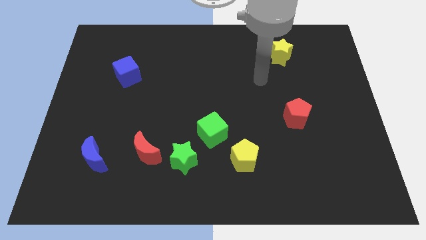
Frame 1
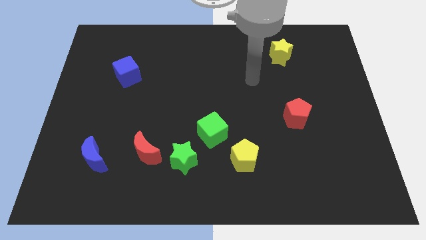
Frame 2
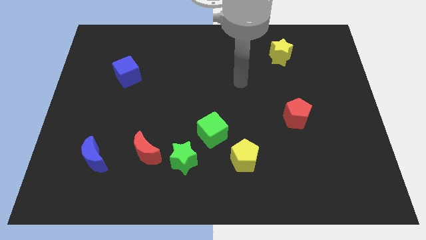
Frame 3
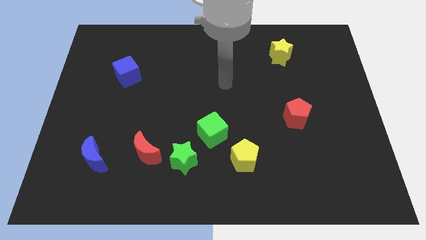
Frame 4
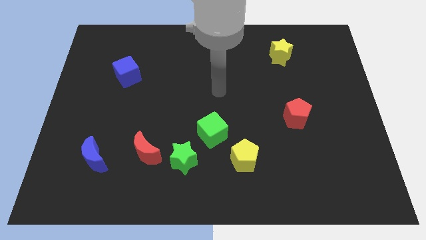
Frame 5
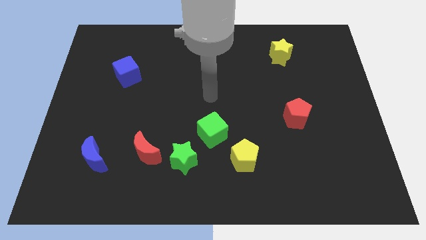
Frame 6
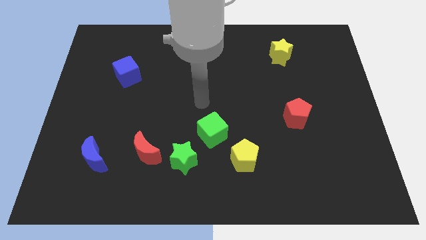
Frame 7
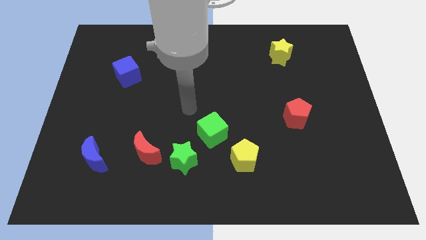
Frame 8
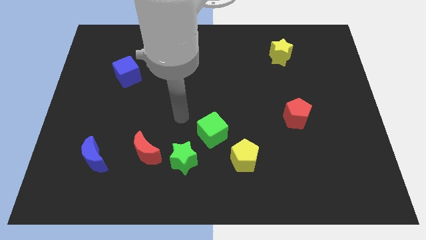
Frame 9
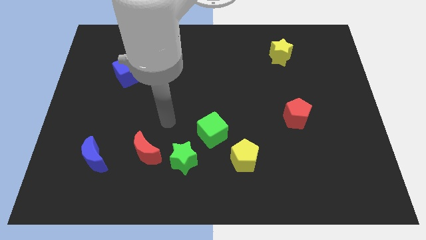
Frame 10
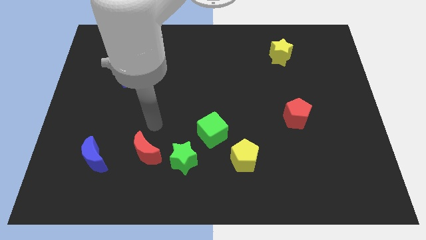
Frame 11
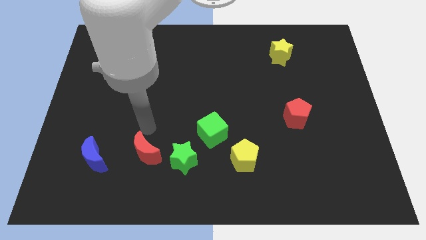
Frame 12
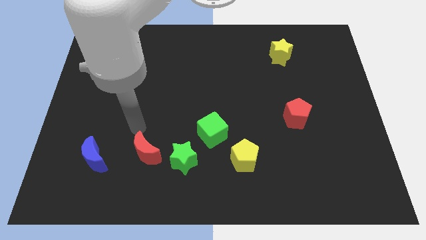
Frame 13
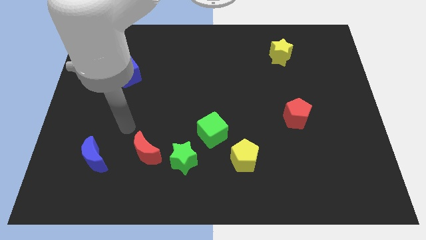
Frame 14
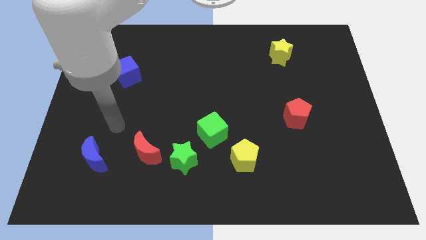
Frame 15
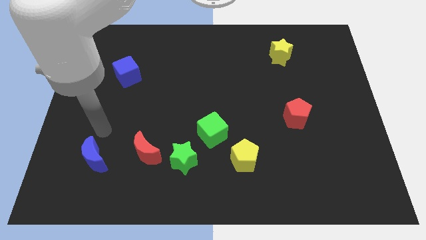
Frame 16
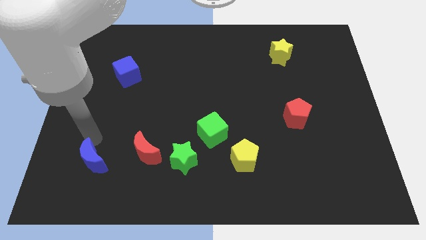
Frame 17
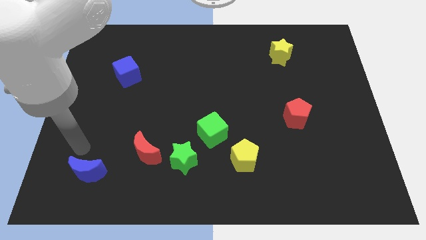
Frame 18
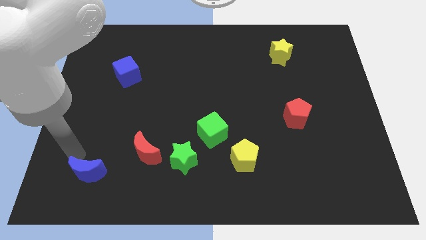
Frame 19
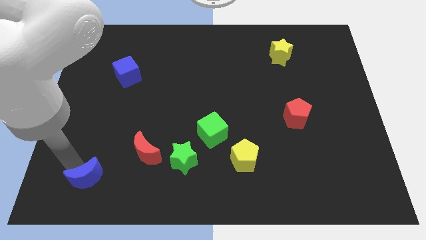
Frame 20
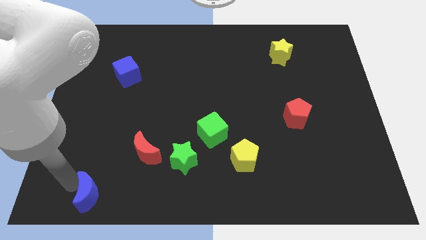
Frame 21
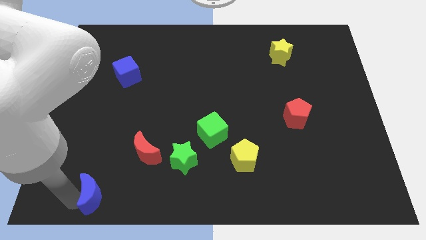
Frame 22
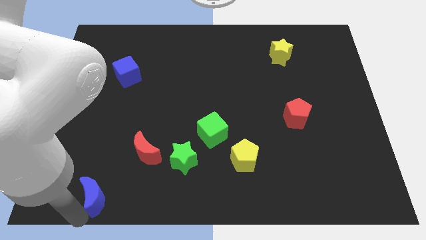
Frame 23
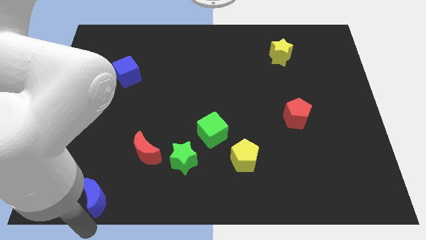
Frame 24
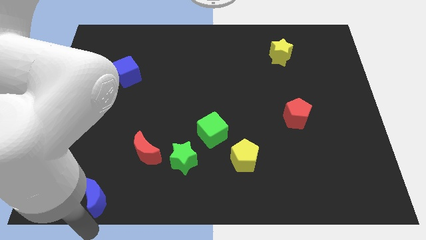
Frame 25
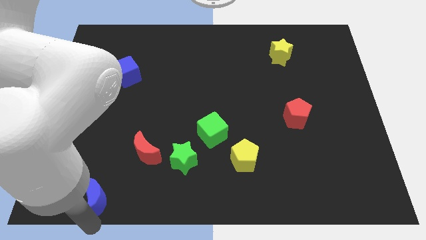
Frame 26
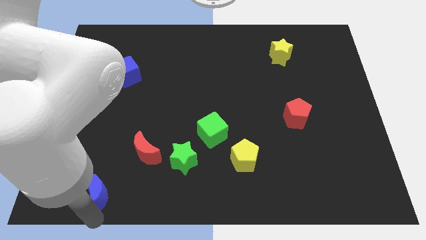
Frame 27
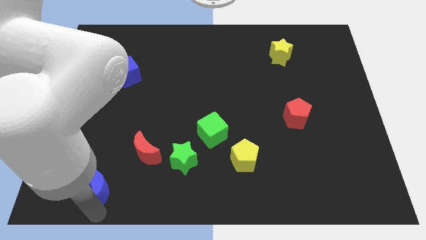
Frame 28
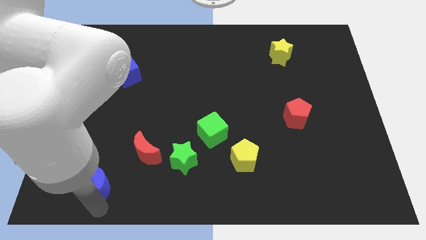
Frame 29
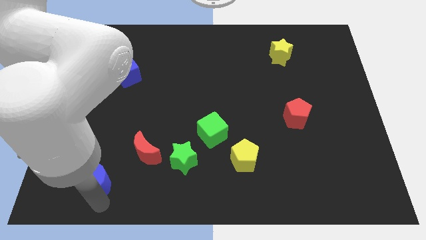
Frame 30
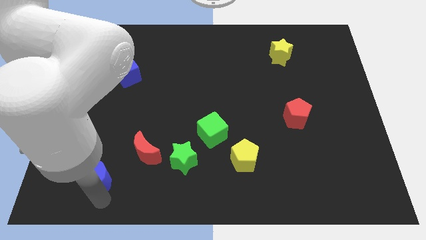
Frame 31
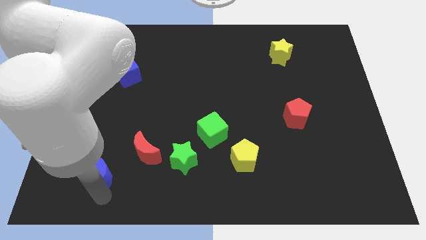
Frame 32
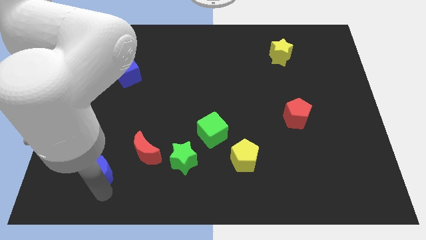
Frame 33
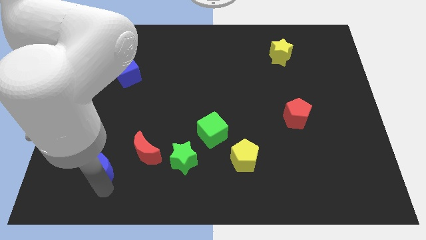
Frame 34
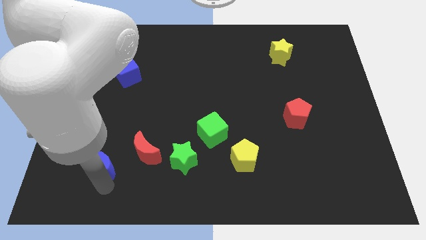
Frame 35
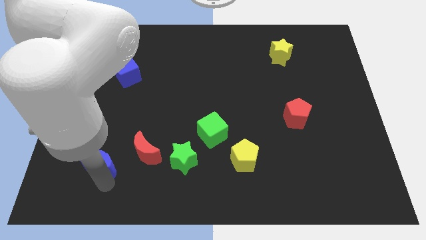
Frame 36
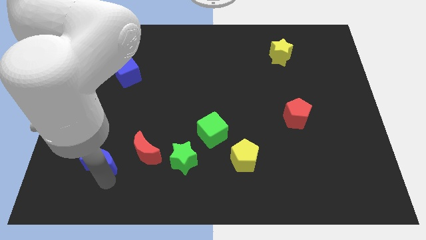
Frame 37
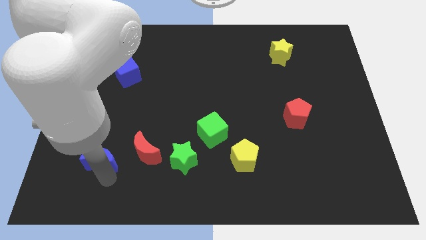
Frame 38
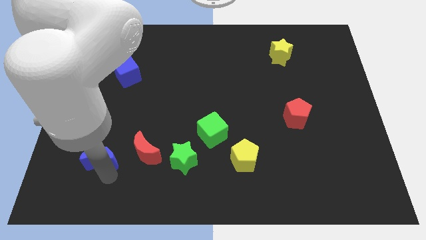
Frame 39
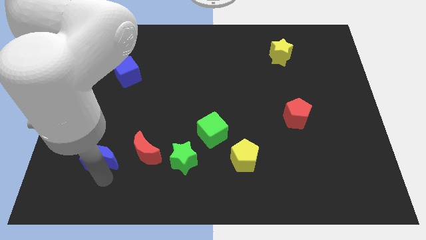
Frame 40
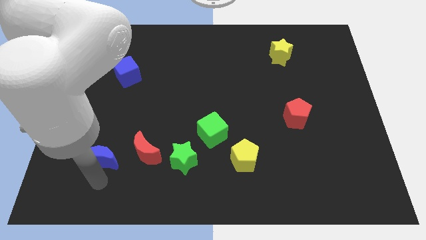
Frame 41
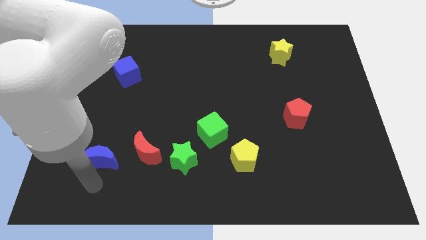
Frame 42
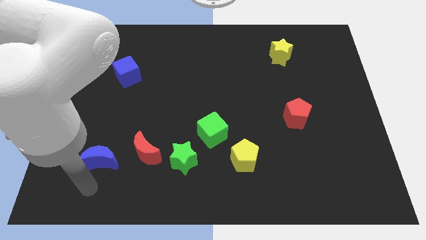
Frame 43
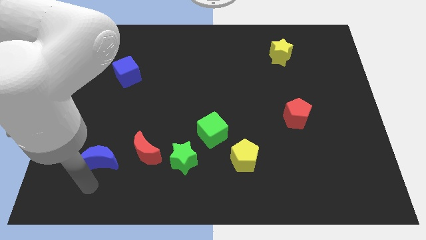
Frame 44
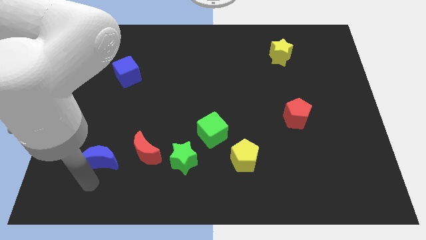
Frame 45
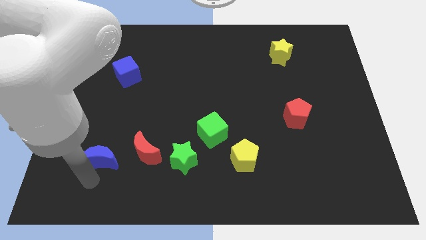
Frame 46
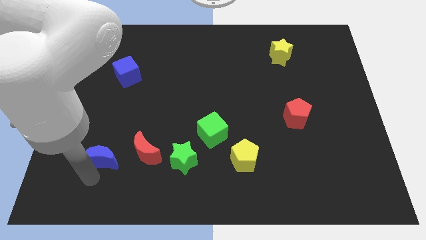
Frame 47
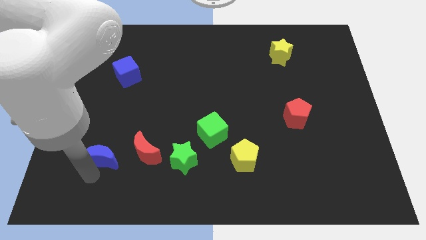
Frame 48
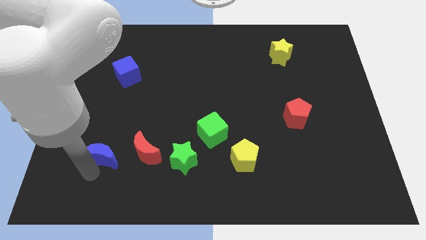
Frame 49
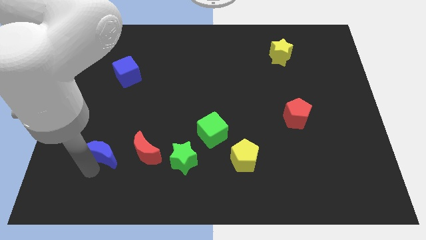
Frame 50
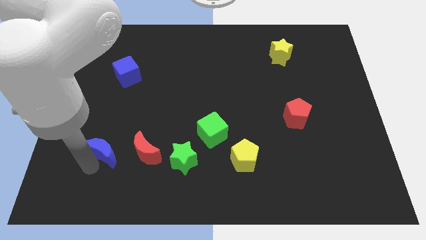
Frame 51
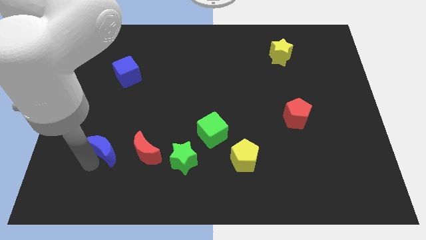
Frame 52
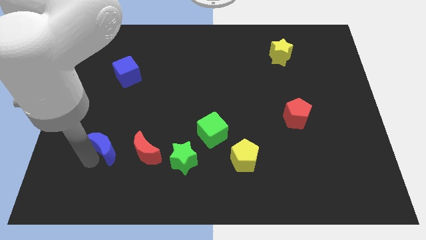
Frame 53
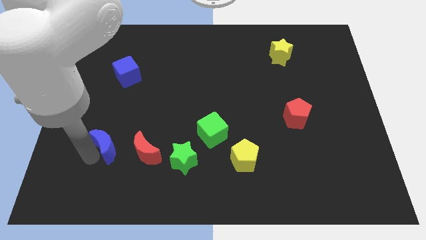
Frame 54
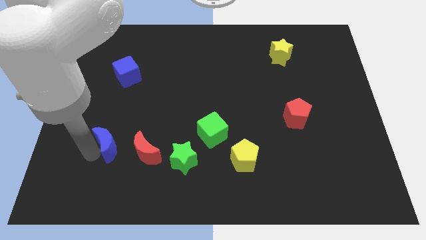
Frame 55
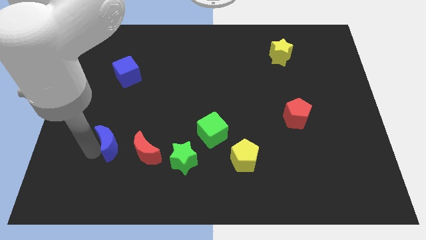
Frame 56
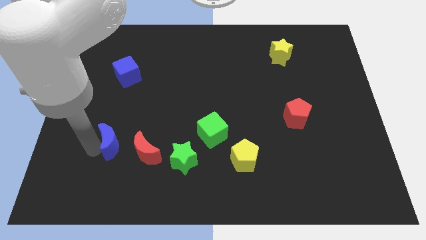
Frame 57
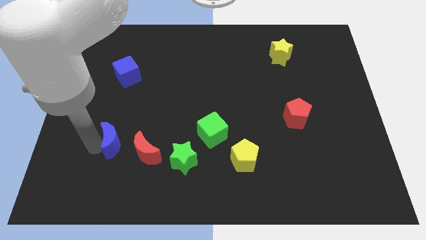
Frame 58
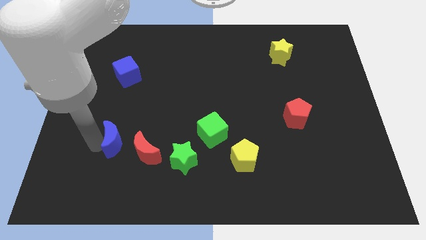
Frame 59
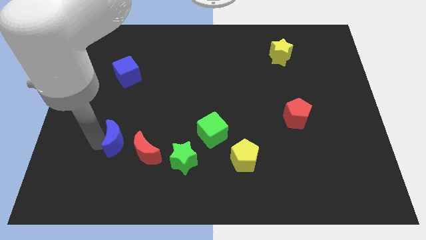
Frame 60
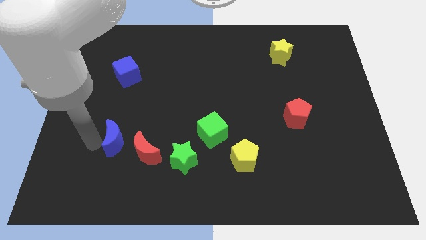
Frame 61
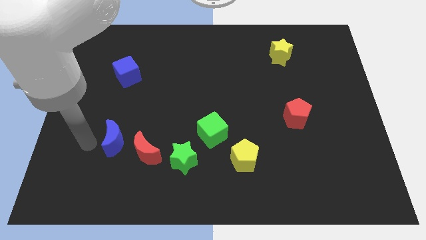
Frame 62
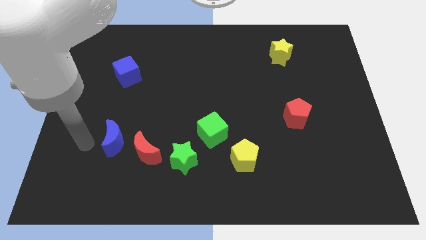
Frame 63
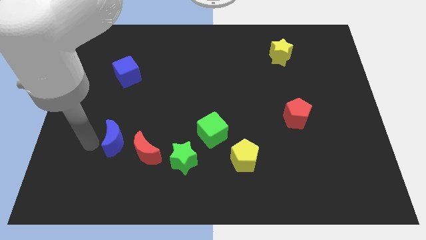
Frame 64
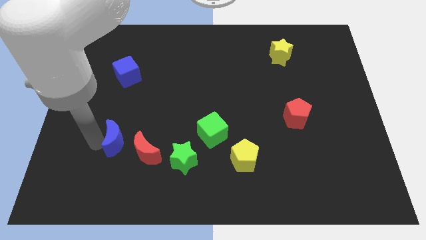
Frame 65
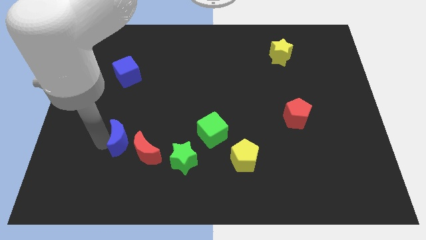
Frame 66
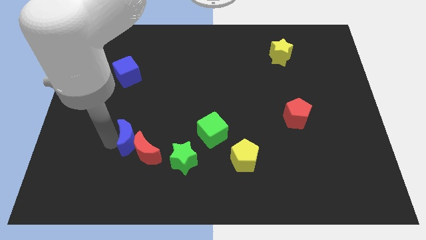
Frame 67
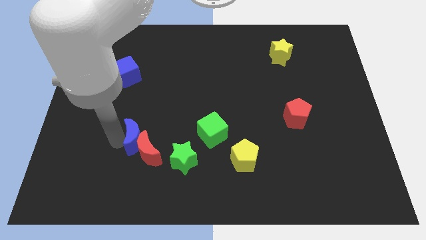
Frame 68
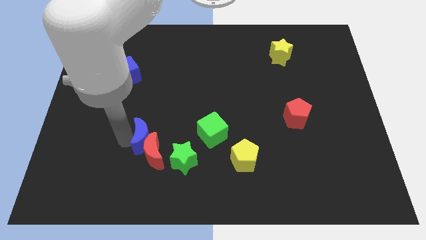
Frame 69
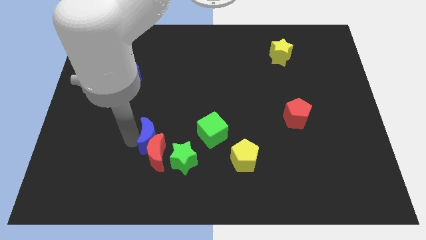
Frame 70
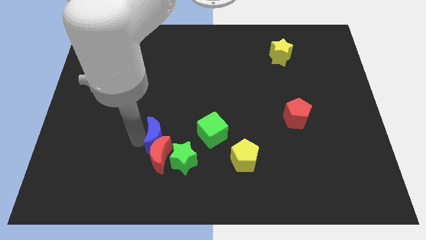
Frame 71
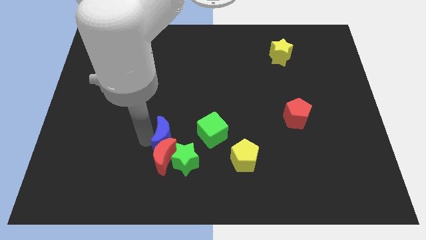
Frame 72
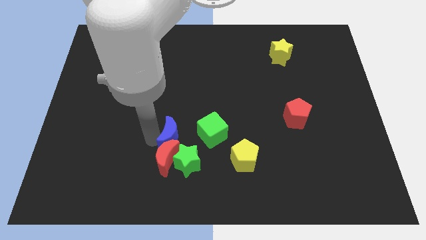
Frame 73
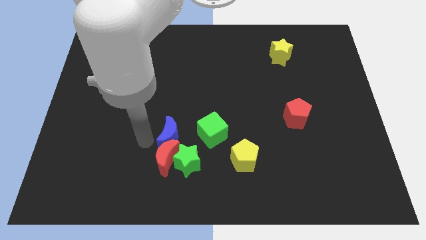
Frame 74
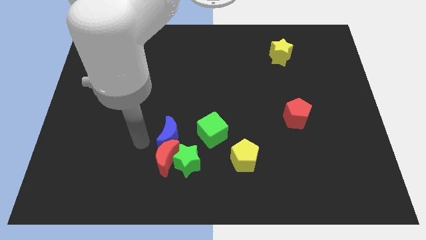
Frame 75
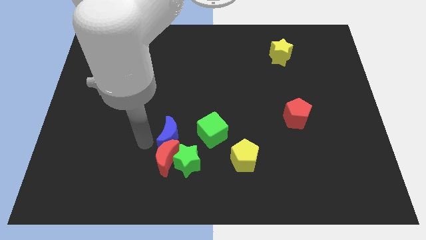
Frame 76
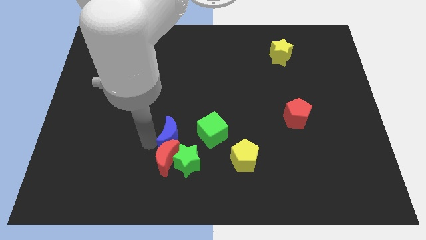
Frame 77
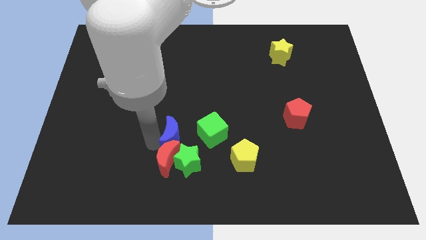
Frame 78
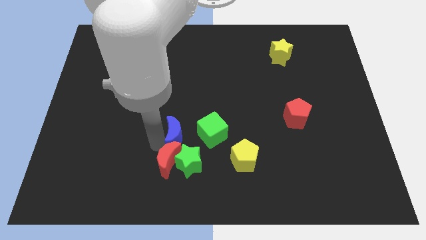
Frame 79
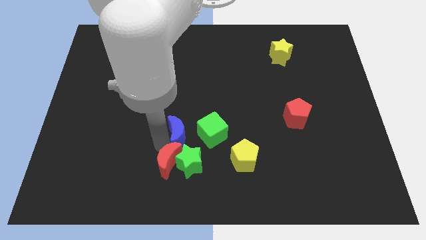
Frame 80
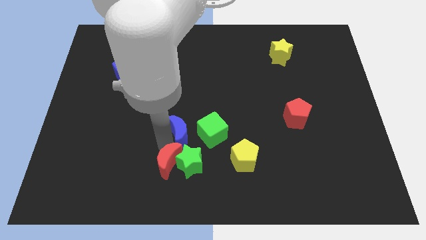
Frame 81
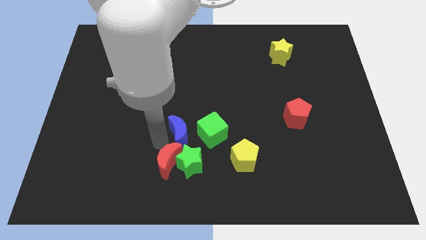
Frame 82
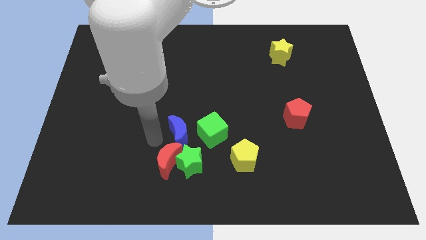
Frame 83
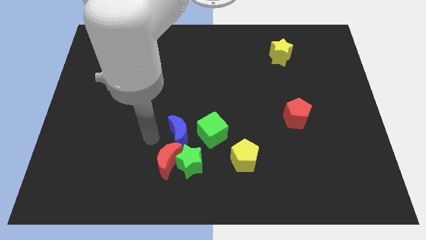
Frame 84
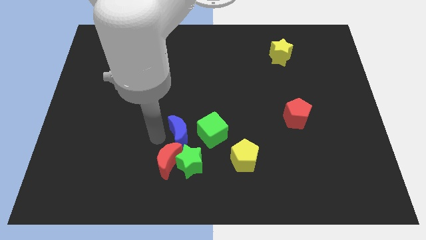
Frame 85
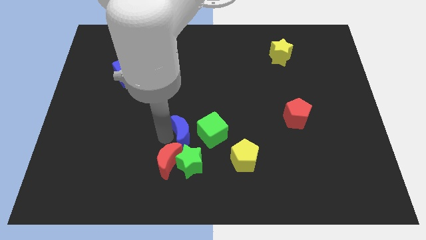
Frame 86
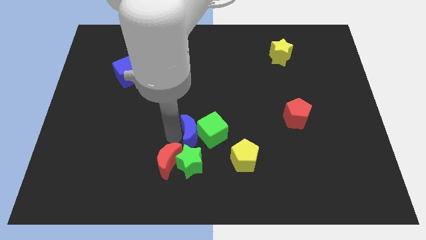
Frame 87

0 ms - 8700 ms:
move the blue moon to the green cube
